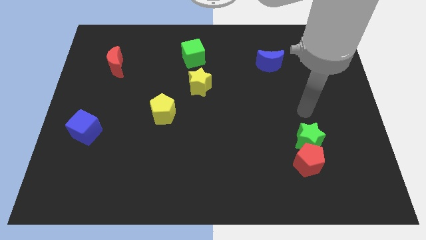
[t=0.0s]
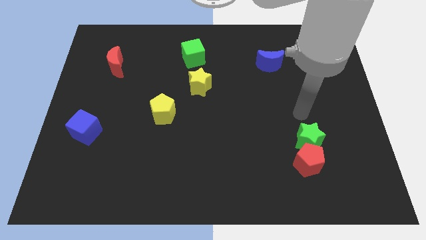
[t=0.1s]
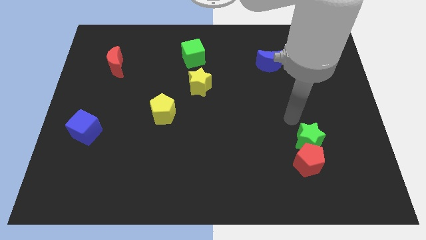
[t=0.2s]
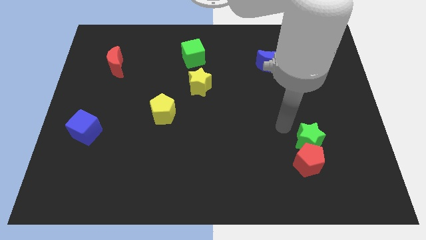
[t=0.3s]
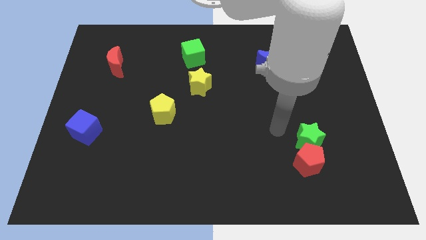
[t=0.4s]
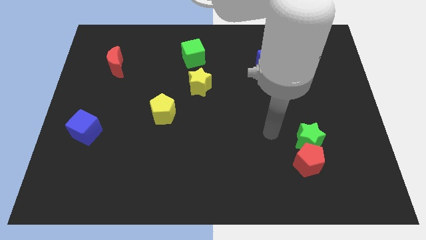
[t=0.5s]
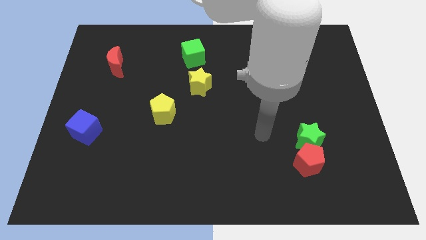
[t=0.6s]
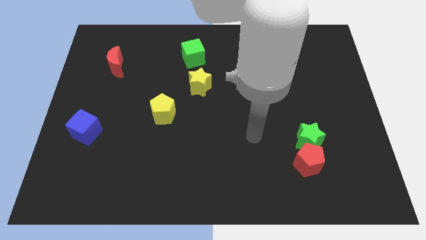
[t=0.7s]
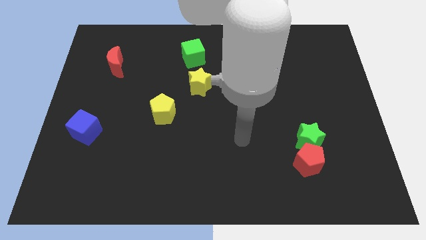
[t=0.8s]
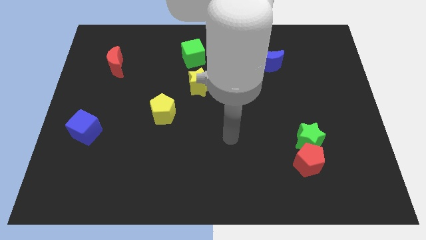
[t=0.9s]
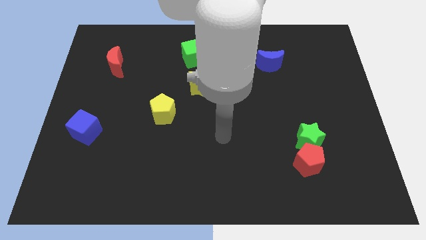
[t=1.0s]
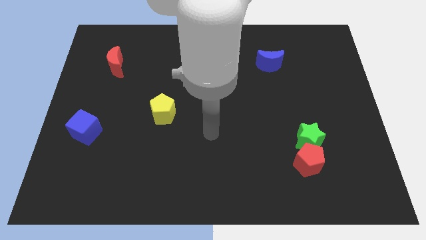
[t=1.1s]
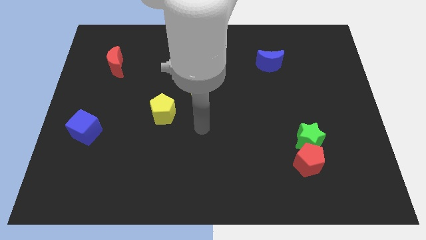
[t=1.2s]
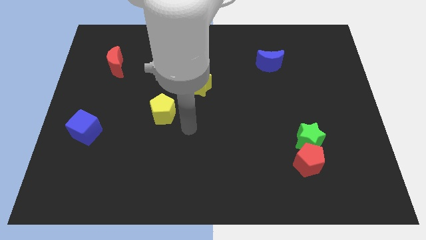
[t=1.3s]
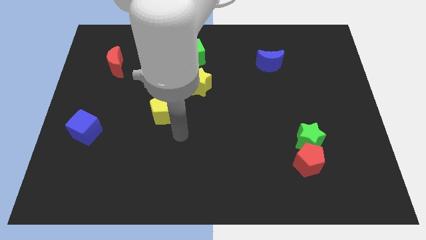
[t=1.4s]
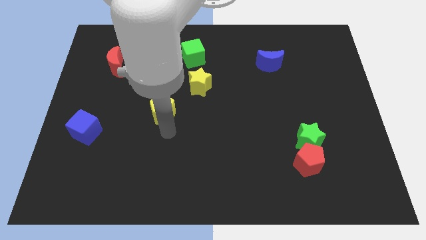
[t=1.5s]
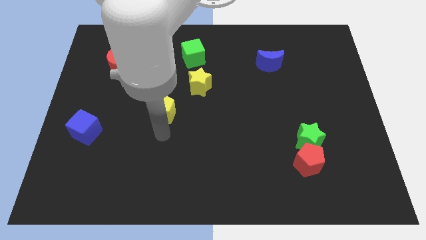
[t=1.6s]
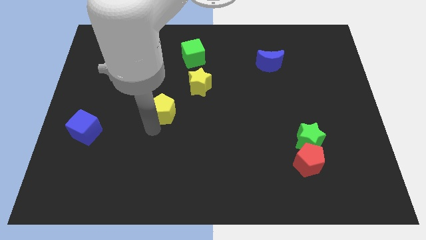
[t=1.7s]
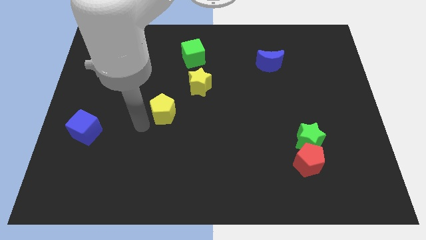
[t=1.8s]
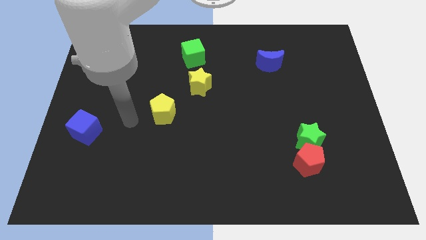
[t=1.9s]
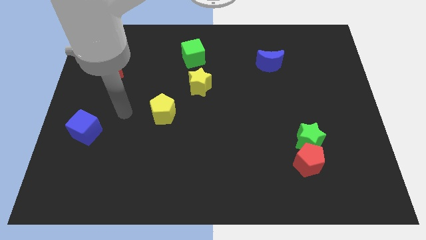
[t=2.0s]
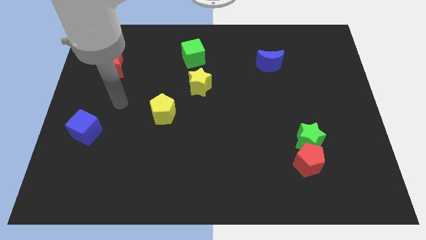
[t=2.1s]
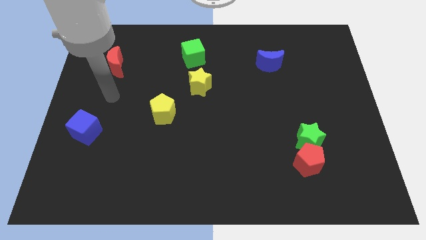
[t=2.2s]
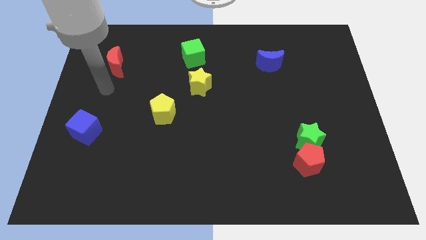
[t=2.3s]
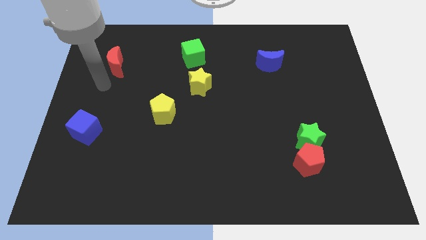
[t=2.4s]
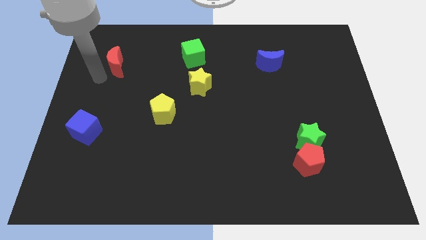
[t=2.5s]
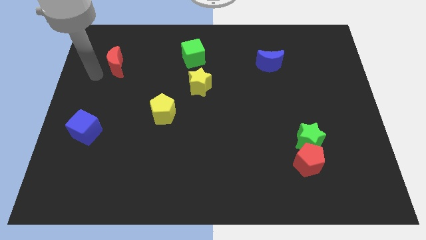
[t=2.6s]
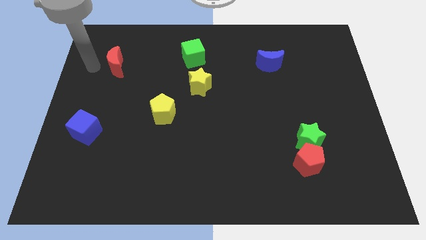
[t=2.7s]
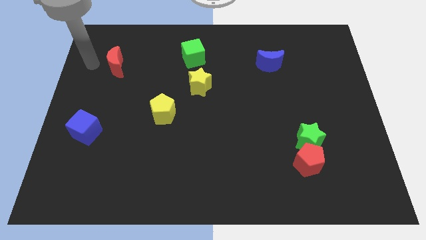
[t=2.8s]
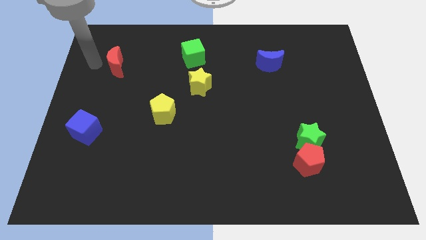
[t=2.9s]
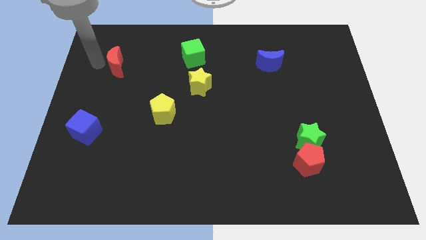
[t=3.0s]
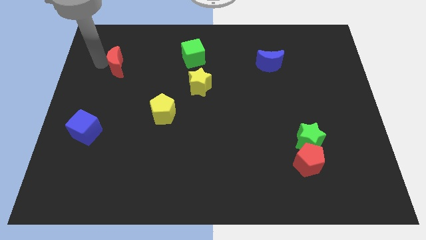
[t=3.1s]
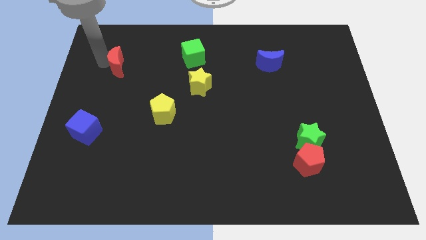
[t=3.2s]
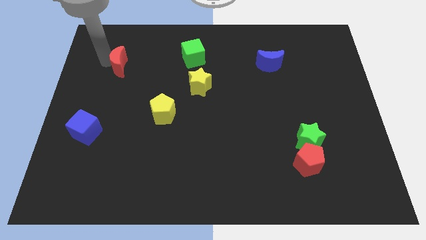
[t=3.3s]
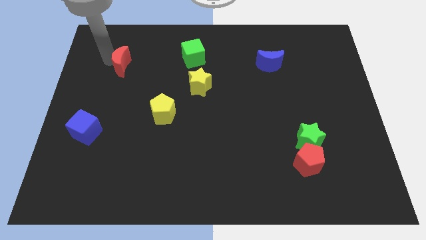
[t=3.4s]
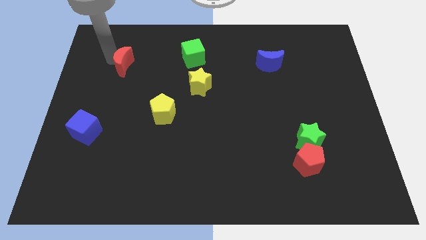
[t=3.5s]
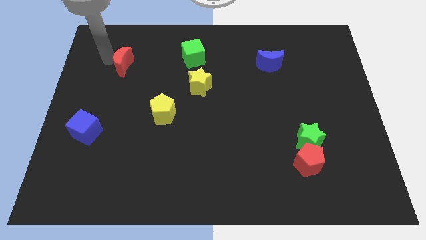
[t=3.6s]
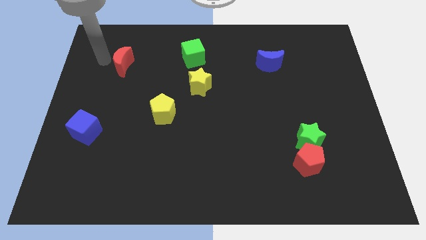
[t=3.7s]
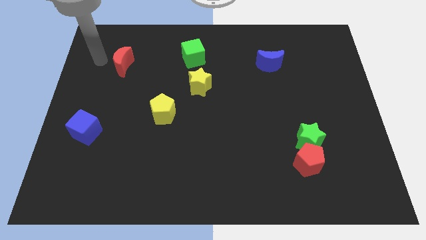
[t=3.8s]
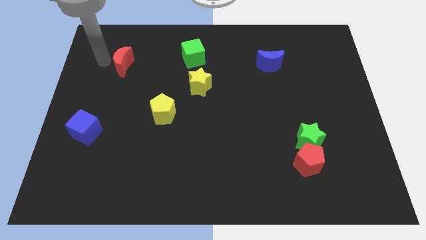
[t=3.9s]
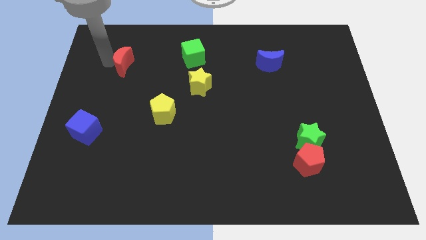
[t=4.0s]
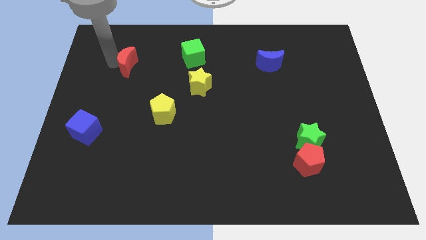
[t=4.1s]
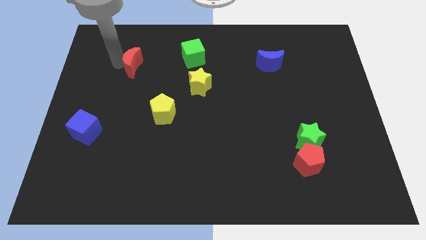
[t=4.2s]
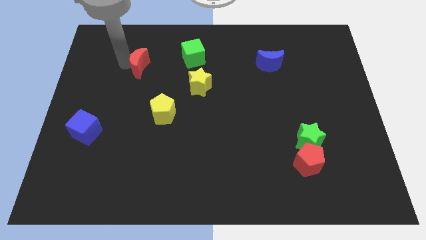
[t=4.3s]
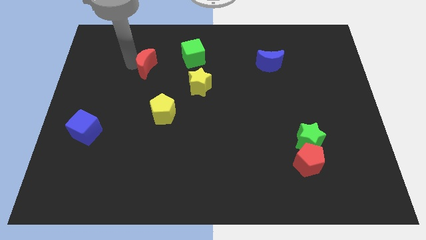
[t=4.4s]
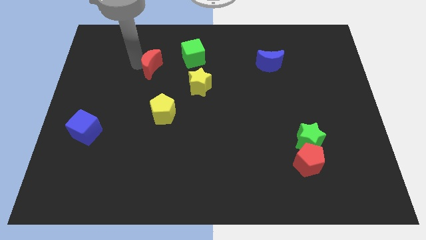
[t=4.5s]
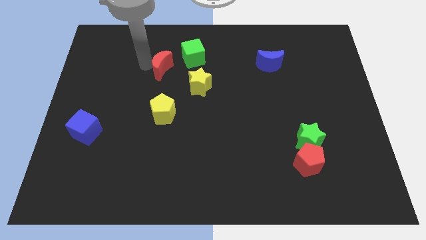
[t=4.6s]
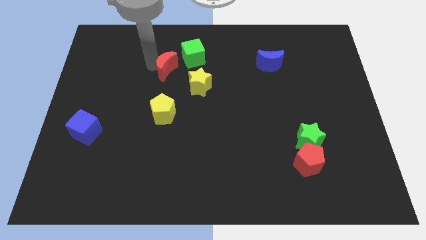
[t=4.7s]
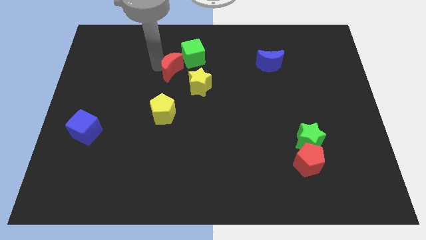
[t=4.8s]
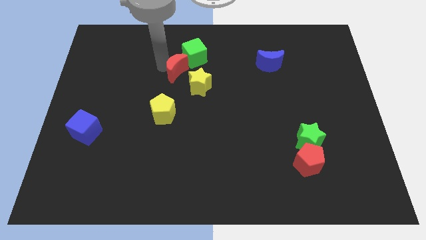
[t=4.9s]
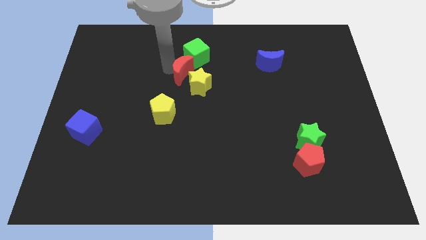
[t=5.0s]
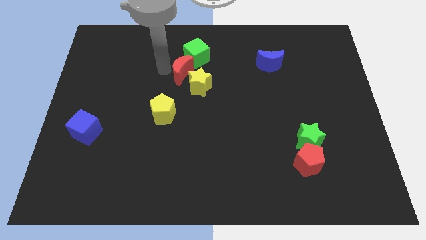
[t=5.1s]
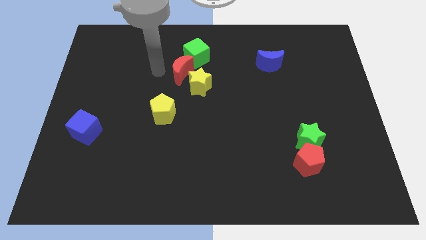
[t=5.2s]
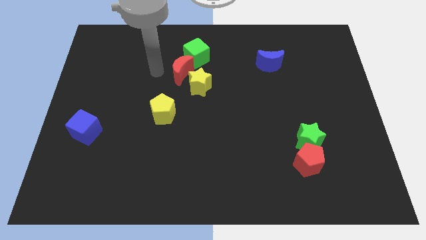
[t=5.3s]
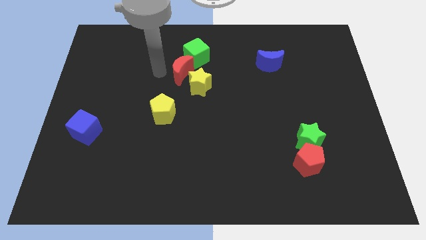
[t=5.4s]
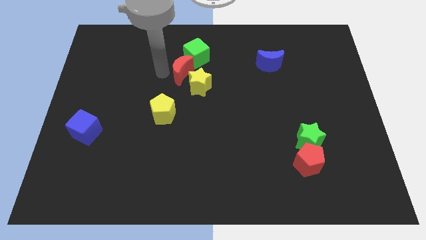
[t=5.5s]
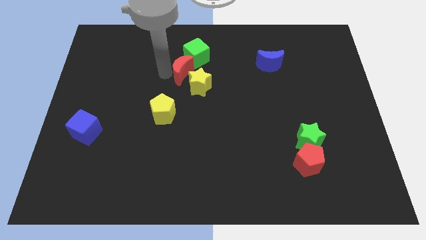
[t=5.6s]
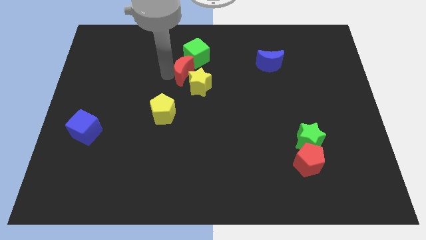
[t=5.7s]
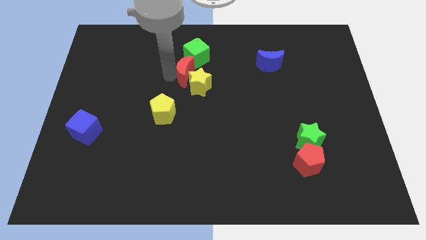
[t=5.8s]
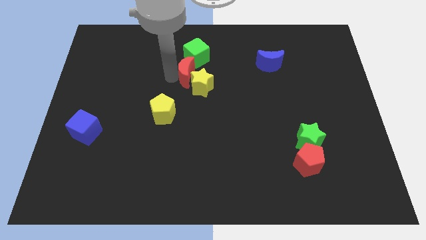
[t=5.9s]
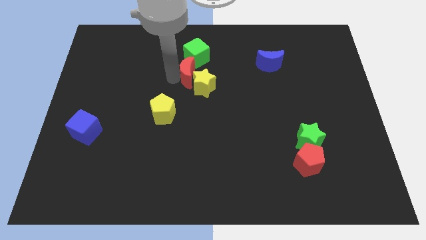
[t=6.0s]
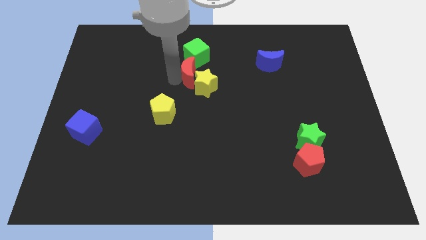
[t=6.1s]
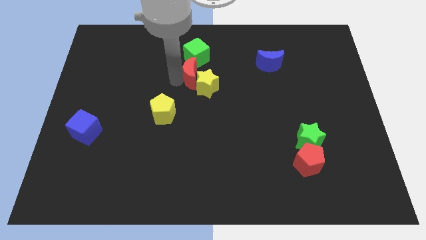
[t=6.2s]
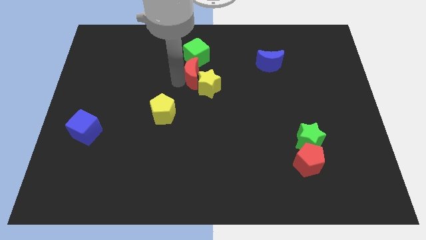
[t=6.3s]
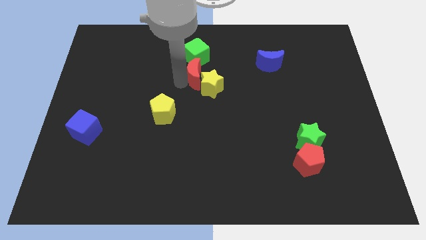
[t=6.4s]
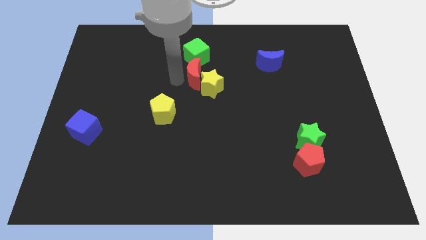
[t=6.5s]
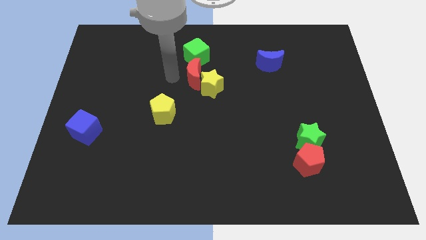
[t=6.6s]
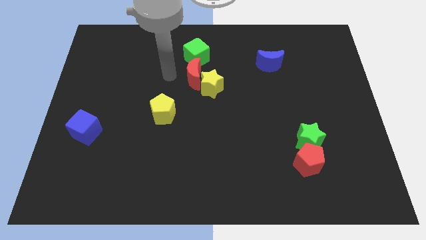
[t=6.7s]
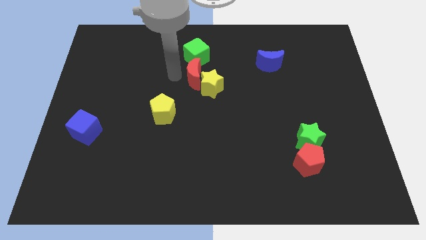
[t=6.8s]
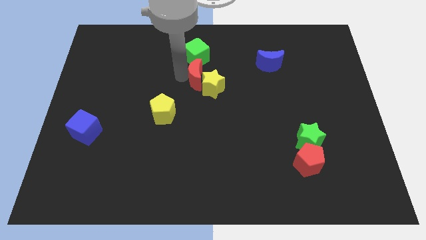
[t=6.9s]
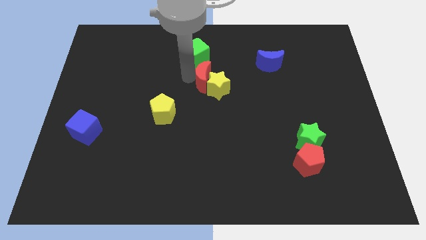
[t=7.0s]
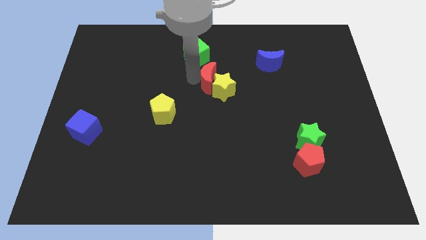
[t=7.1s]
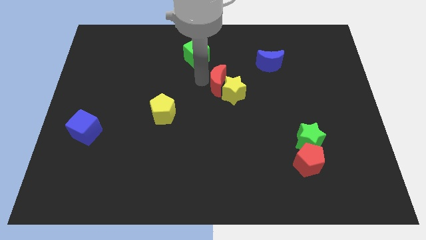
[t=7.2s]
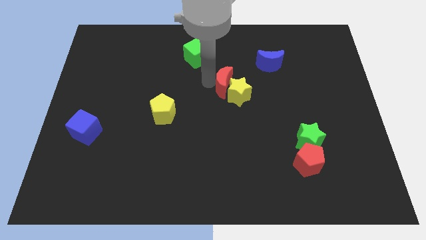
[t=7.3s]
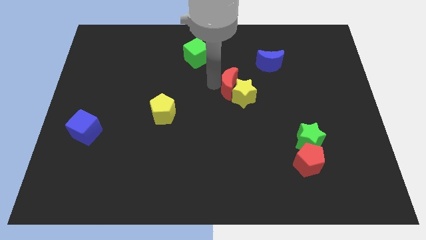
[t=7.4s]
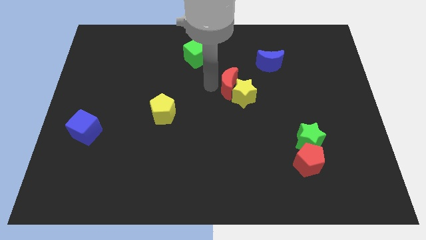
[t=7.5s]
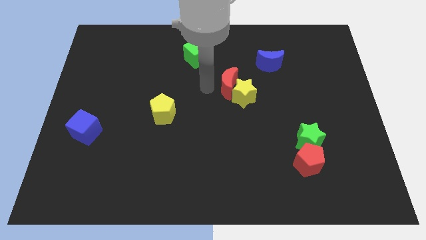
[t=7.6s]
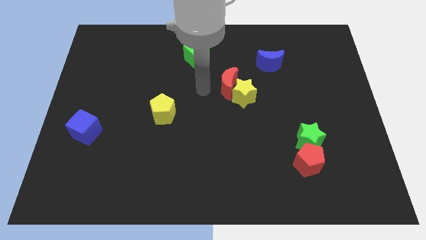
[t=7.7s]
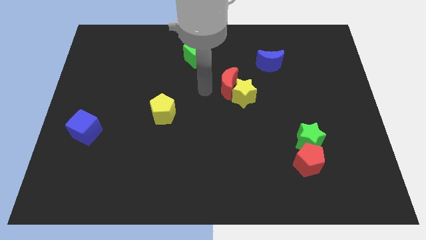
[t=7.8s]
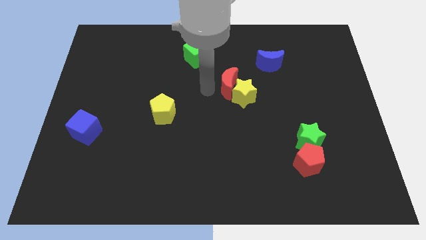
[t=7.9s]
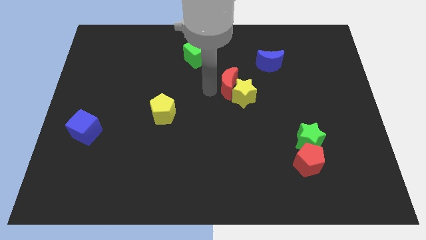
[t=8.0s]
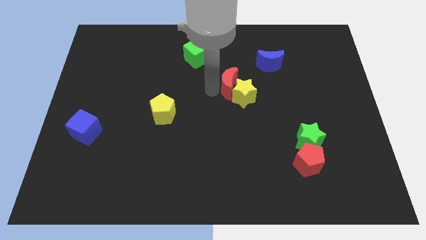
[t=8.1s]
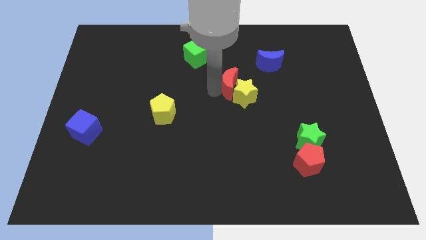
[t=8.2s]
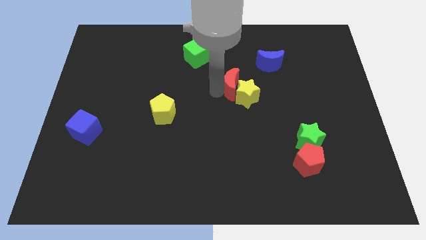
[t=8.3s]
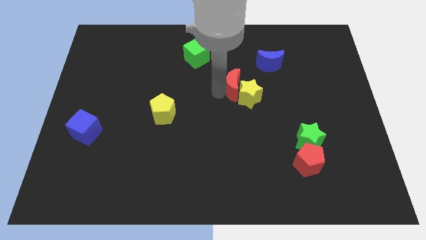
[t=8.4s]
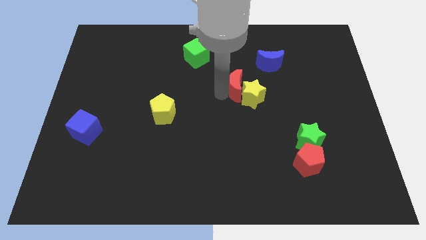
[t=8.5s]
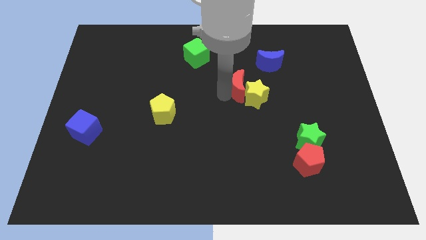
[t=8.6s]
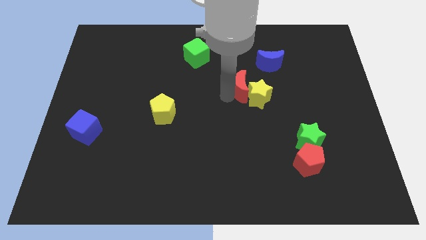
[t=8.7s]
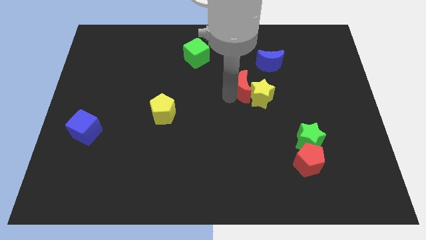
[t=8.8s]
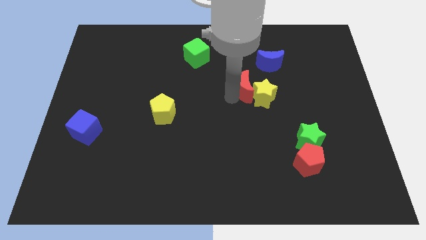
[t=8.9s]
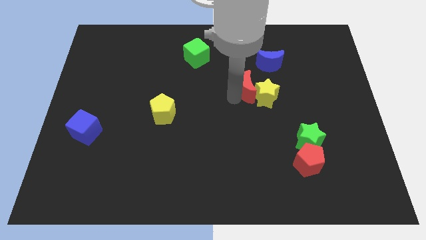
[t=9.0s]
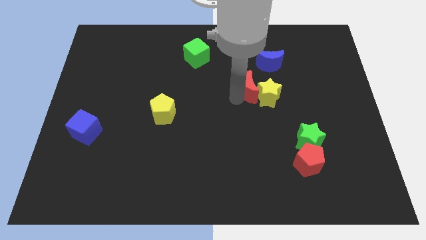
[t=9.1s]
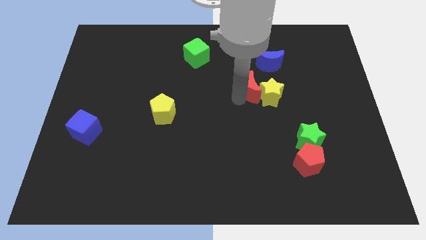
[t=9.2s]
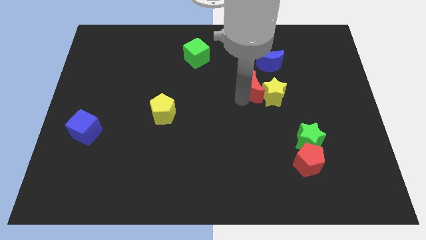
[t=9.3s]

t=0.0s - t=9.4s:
slide the red moon below the blue moon
